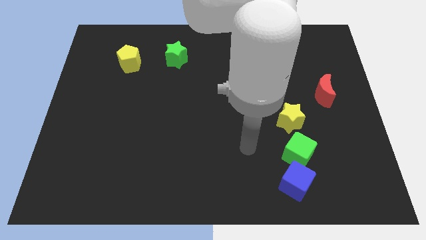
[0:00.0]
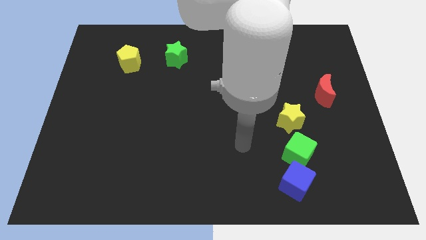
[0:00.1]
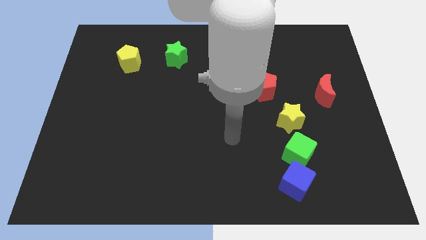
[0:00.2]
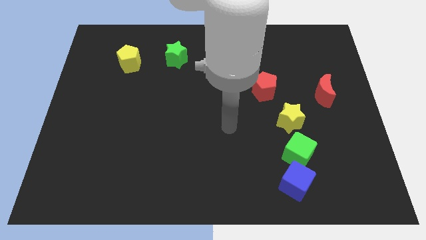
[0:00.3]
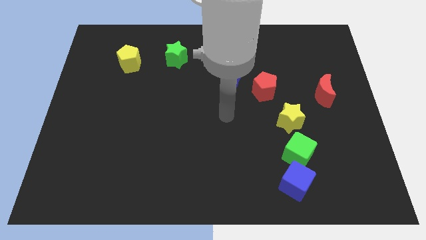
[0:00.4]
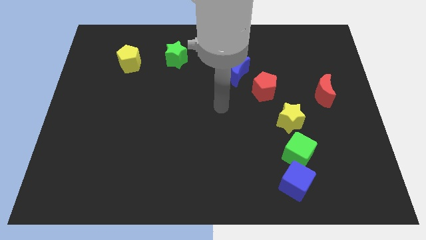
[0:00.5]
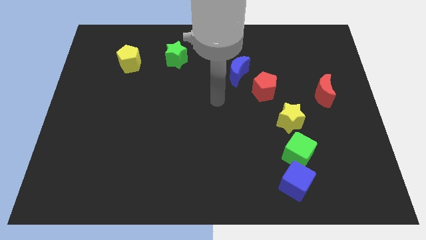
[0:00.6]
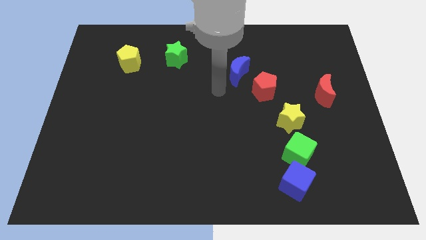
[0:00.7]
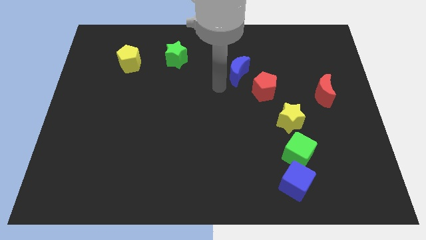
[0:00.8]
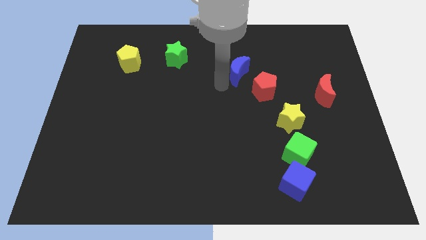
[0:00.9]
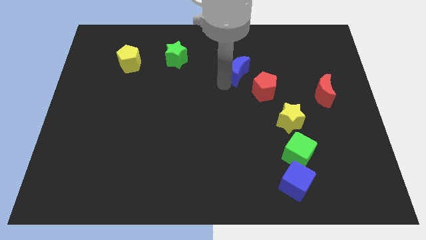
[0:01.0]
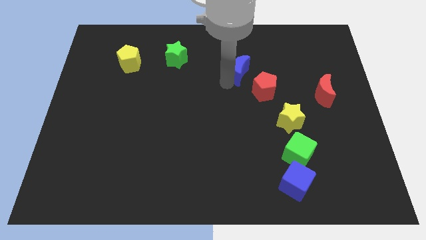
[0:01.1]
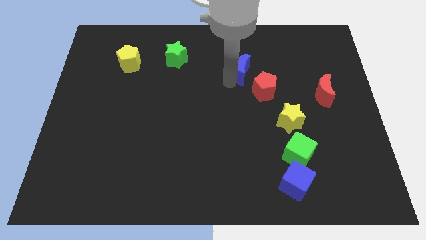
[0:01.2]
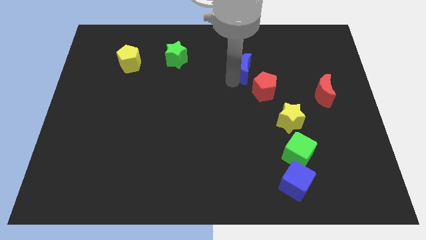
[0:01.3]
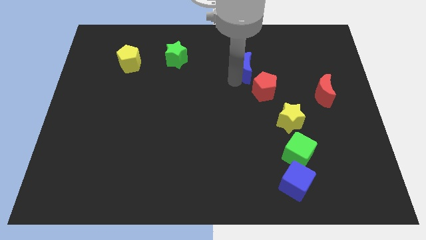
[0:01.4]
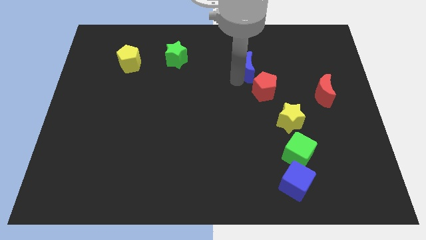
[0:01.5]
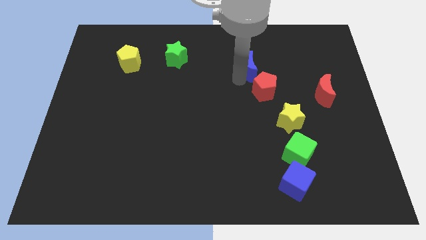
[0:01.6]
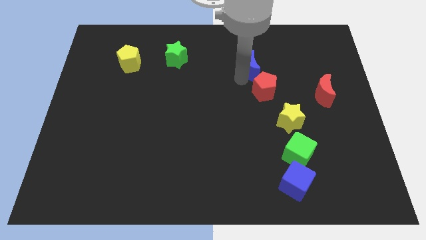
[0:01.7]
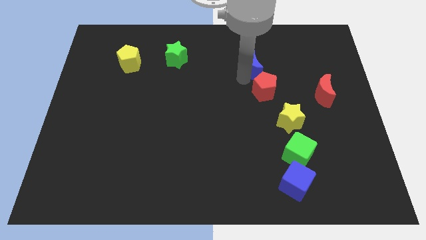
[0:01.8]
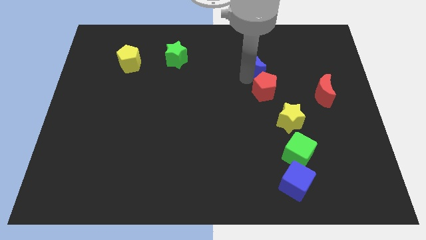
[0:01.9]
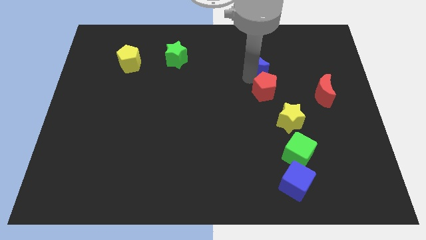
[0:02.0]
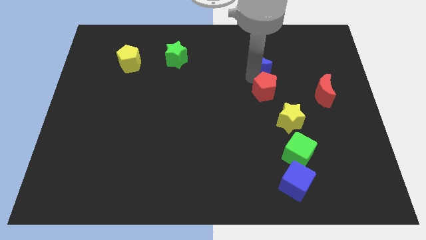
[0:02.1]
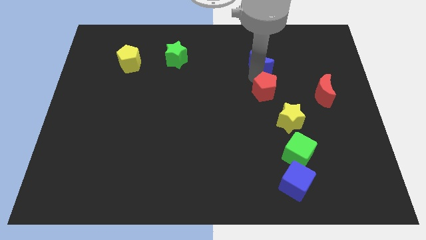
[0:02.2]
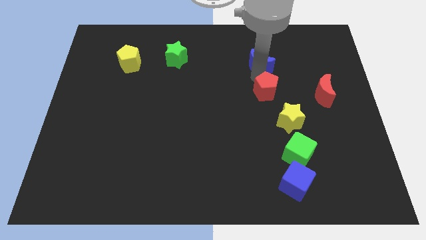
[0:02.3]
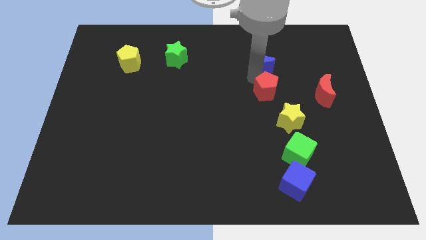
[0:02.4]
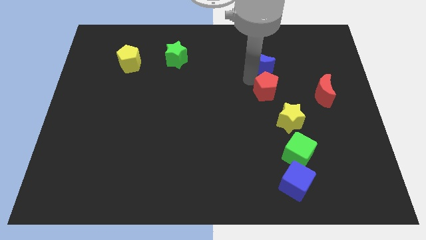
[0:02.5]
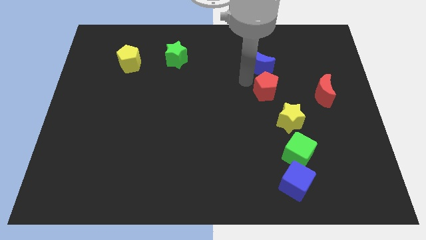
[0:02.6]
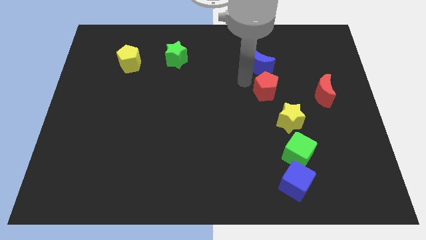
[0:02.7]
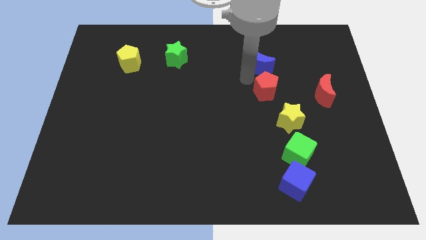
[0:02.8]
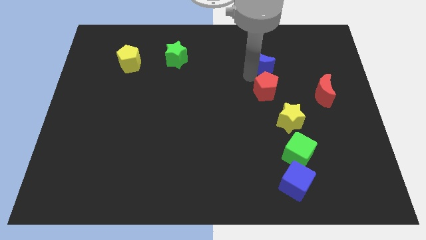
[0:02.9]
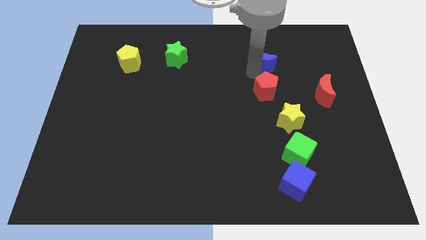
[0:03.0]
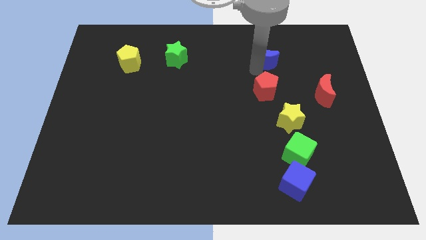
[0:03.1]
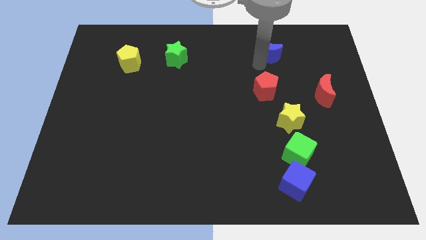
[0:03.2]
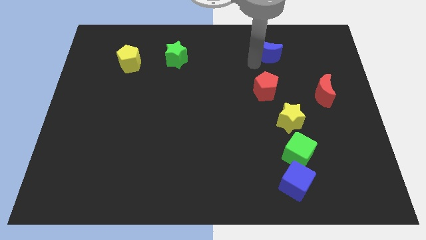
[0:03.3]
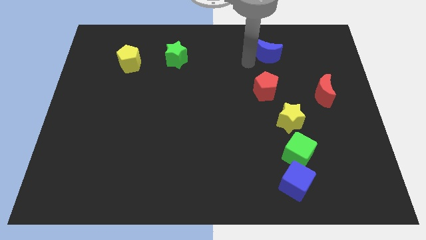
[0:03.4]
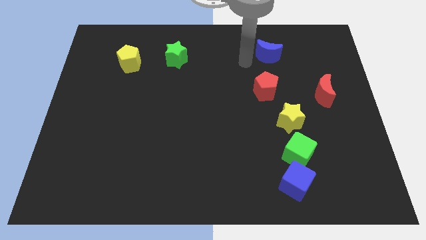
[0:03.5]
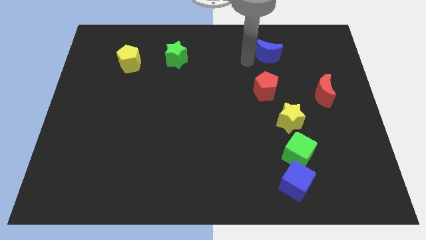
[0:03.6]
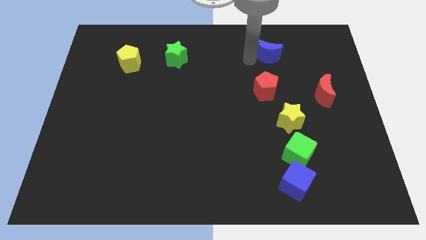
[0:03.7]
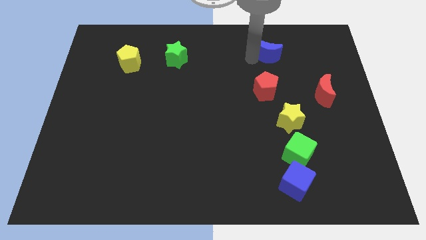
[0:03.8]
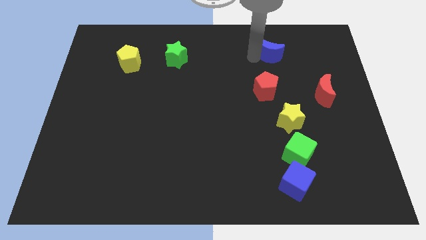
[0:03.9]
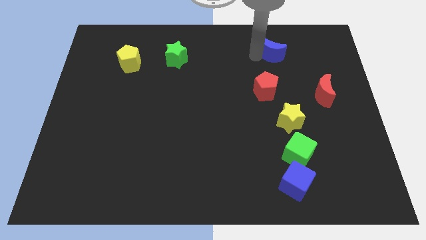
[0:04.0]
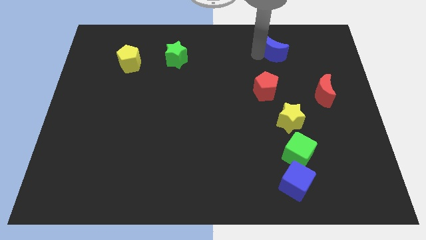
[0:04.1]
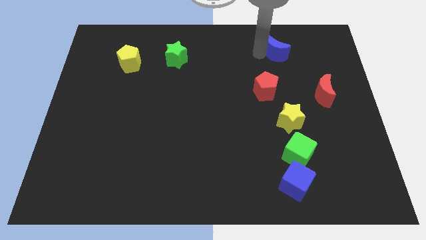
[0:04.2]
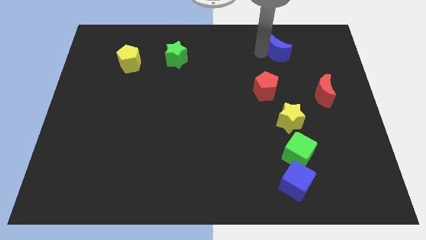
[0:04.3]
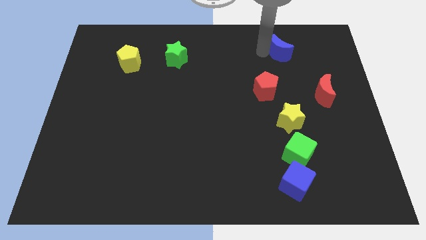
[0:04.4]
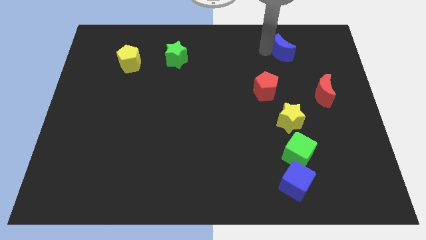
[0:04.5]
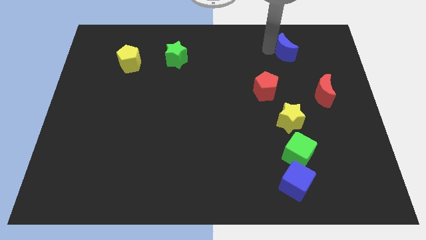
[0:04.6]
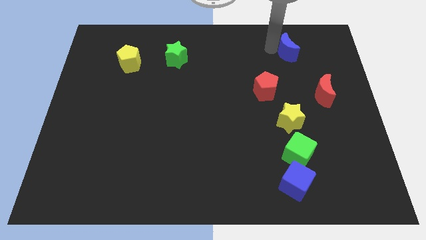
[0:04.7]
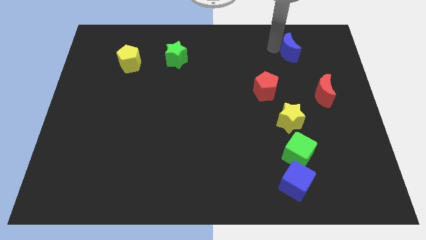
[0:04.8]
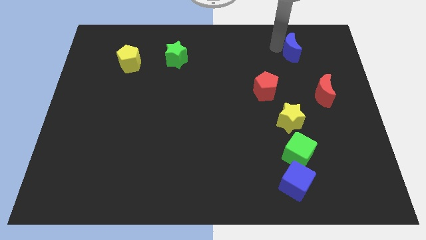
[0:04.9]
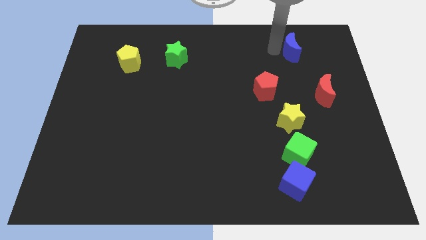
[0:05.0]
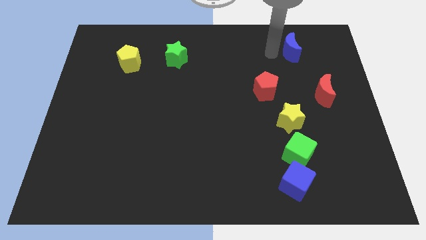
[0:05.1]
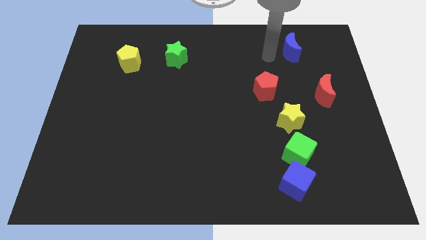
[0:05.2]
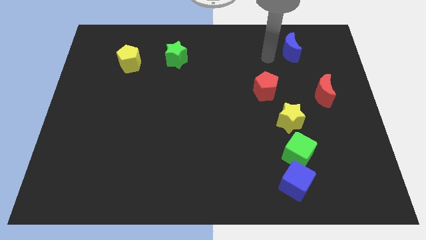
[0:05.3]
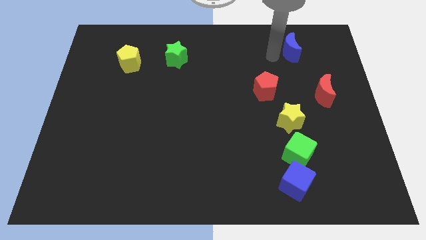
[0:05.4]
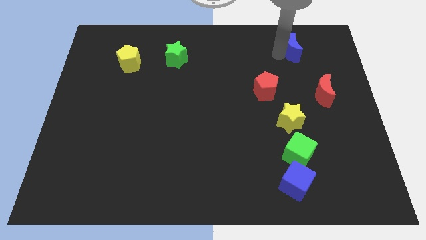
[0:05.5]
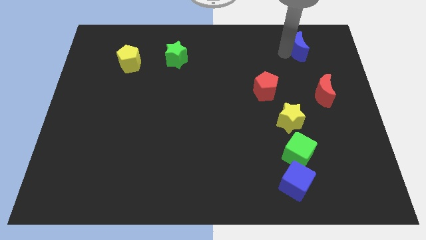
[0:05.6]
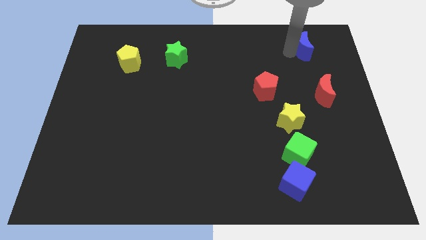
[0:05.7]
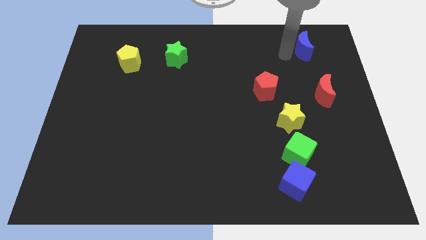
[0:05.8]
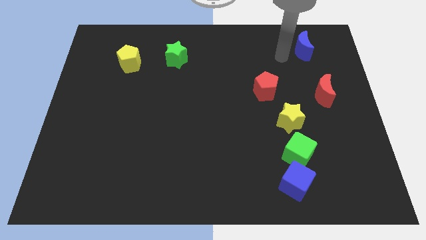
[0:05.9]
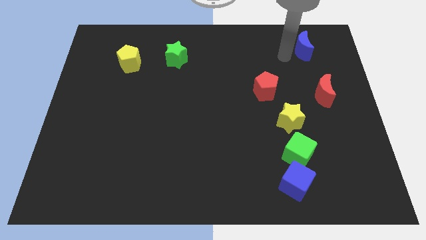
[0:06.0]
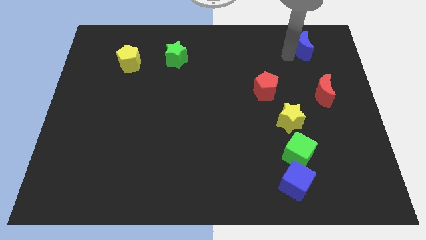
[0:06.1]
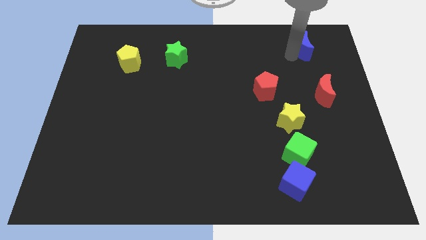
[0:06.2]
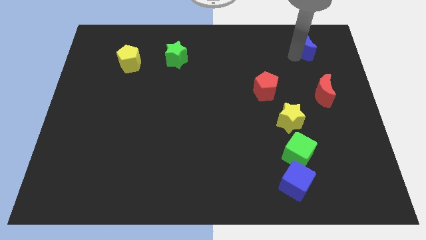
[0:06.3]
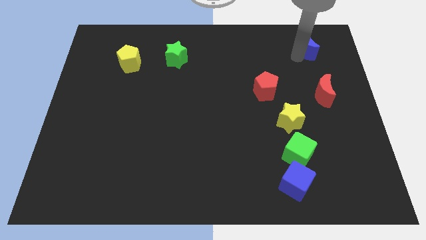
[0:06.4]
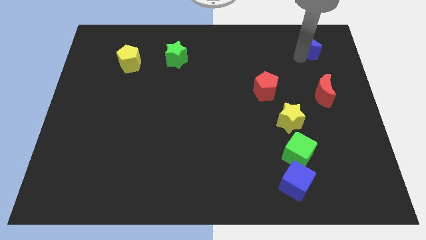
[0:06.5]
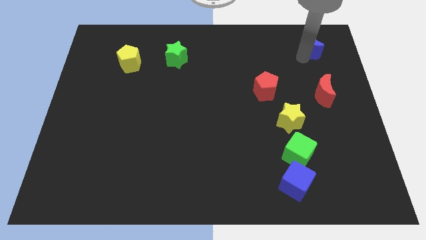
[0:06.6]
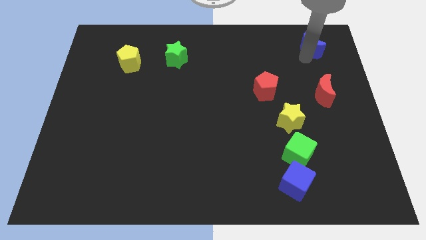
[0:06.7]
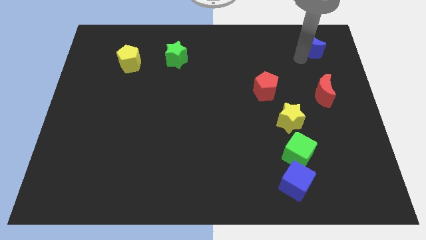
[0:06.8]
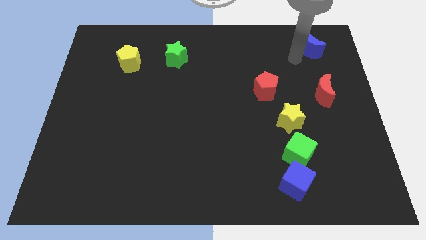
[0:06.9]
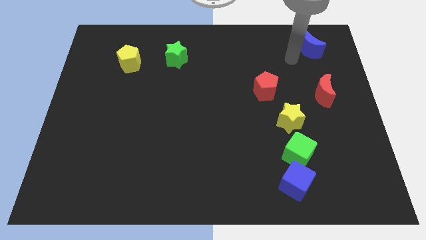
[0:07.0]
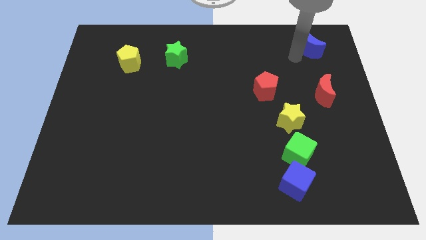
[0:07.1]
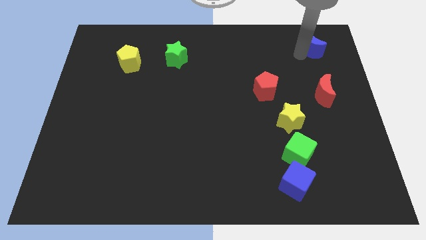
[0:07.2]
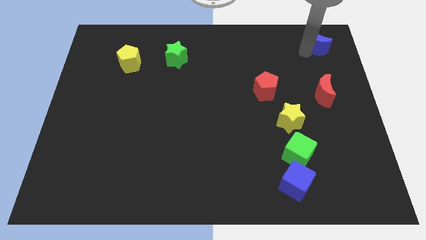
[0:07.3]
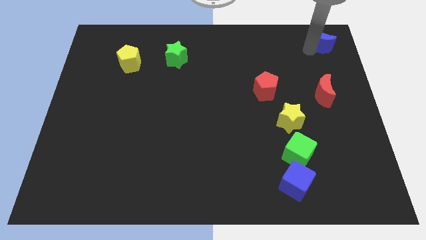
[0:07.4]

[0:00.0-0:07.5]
move the blue moon to the top right
